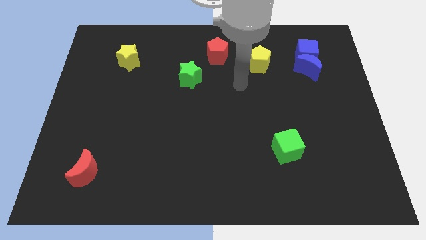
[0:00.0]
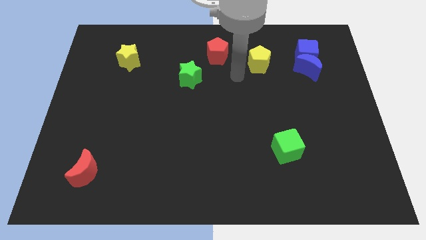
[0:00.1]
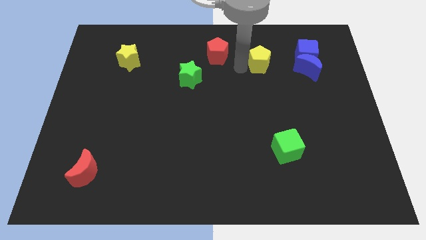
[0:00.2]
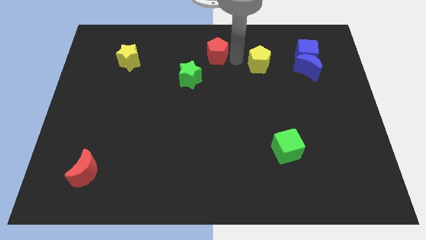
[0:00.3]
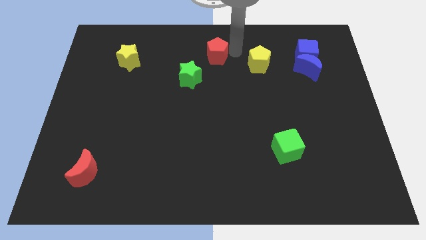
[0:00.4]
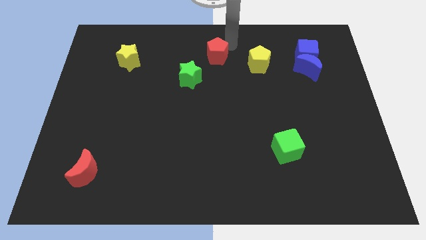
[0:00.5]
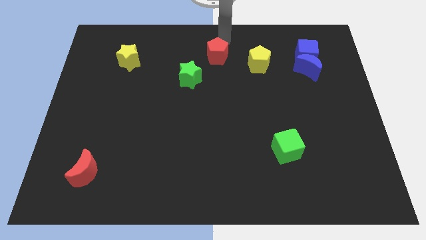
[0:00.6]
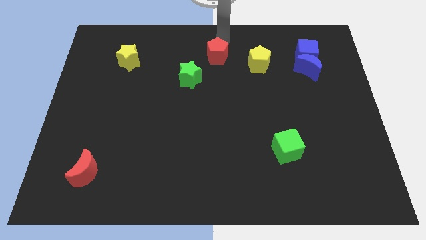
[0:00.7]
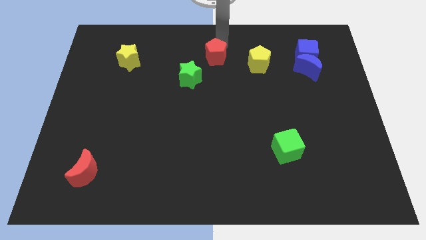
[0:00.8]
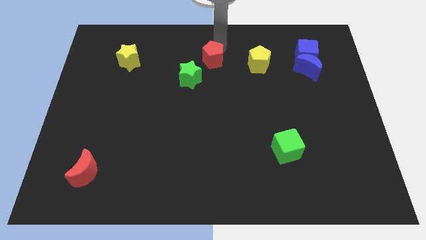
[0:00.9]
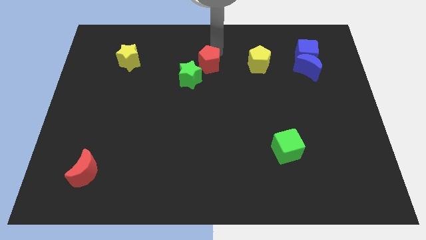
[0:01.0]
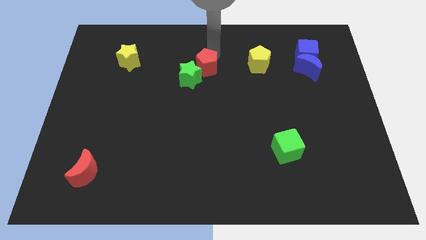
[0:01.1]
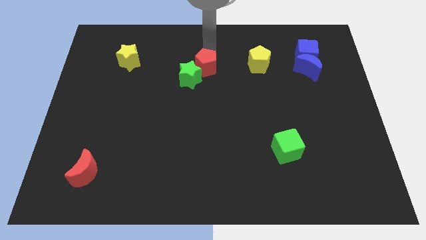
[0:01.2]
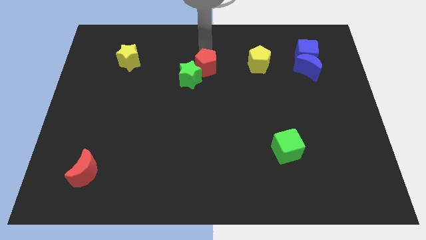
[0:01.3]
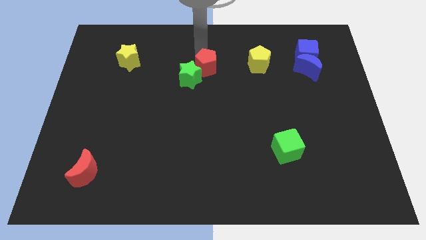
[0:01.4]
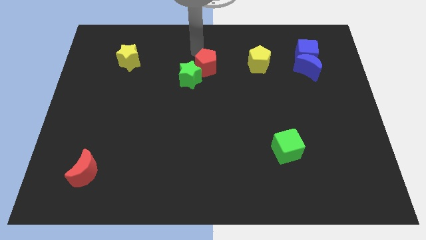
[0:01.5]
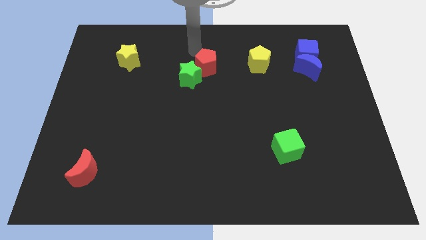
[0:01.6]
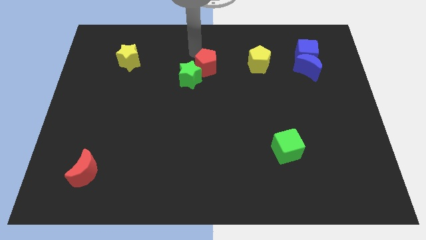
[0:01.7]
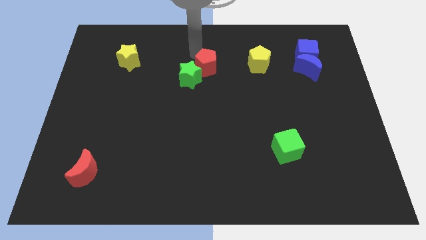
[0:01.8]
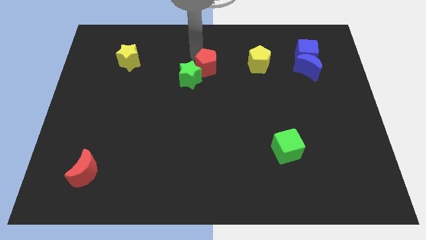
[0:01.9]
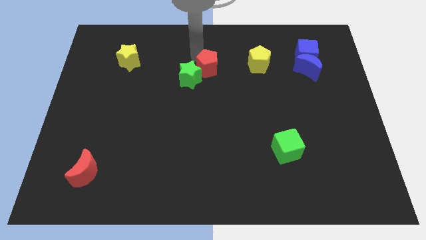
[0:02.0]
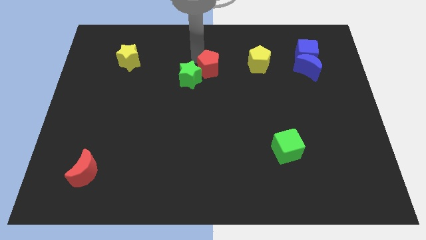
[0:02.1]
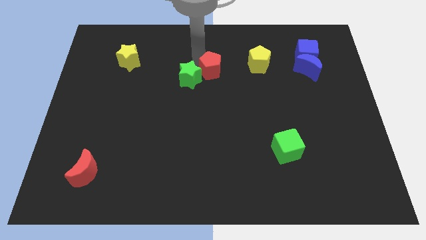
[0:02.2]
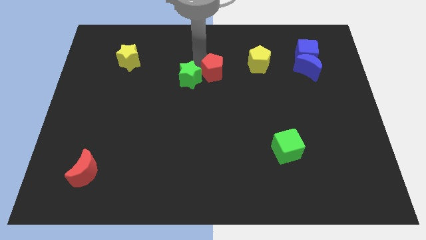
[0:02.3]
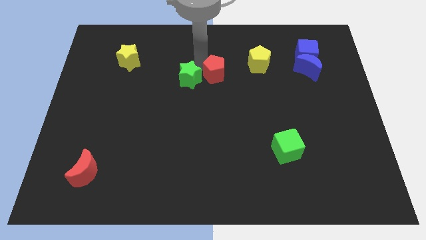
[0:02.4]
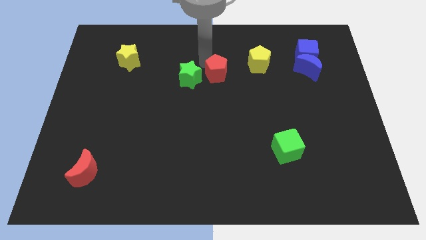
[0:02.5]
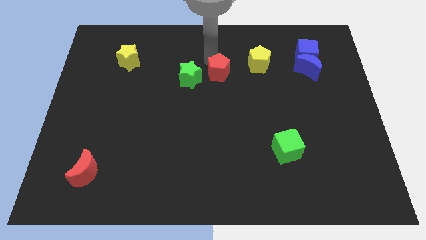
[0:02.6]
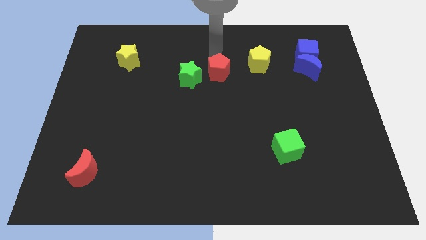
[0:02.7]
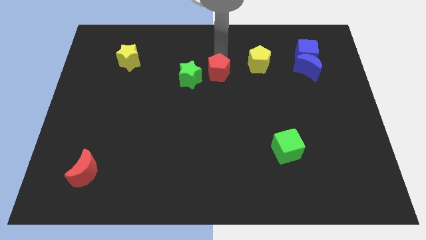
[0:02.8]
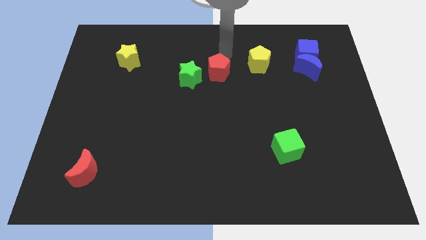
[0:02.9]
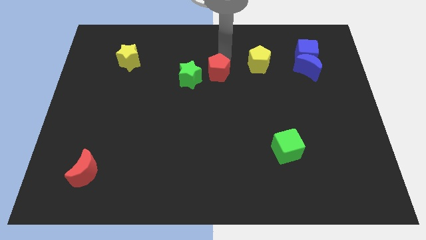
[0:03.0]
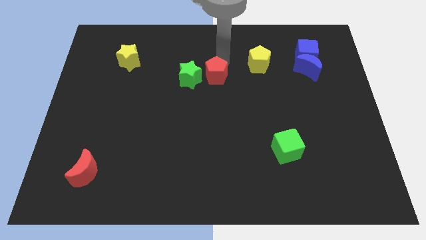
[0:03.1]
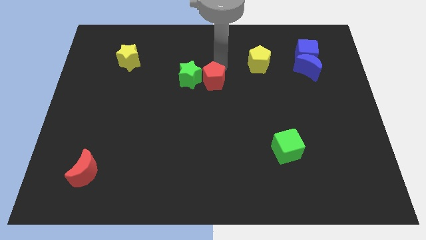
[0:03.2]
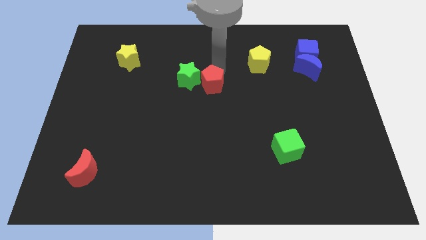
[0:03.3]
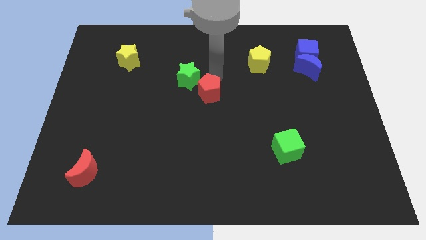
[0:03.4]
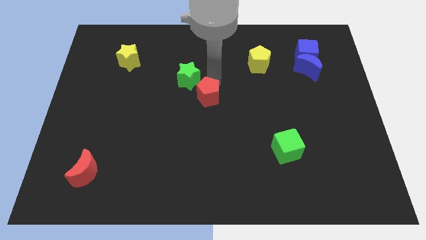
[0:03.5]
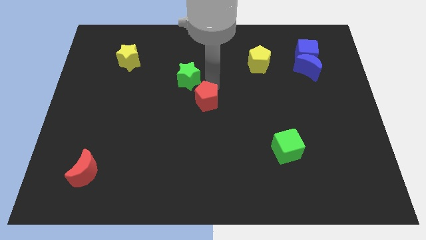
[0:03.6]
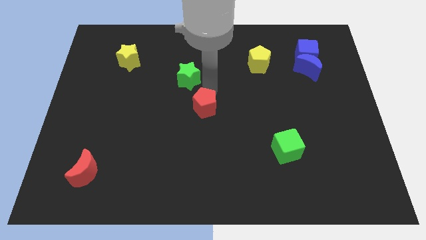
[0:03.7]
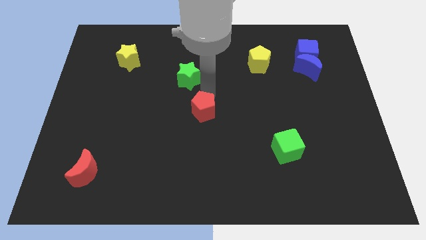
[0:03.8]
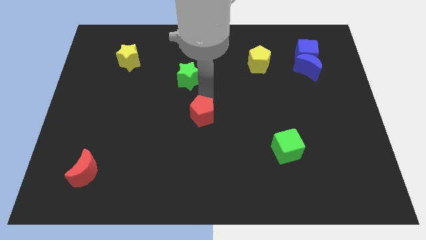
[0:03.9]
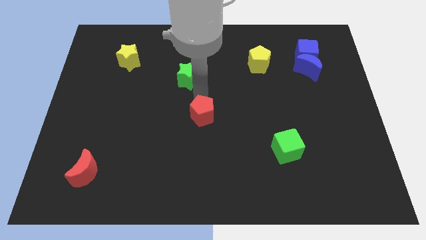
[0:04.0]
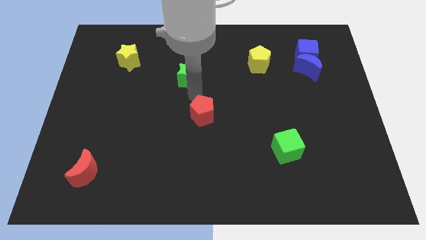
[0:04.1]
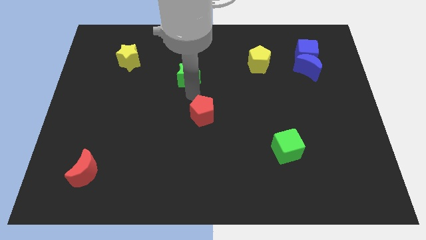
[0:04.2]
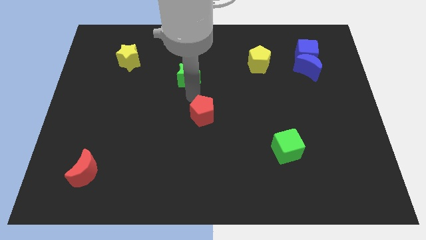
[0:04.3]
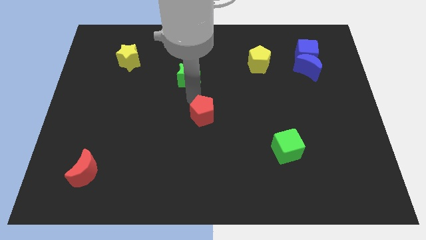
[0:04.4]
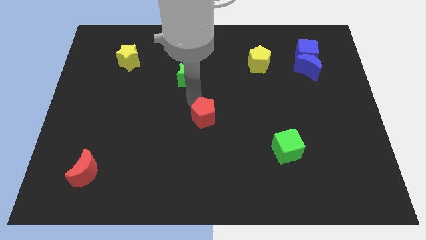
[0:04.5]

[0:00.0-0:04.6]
slide the red pentagon downwards

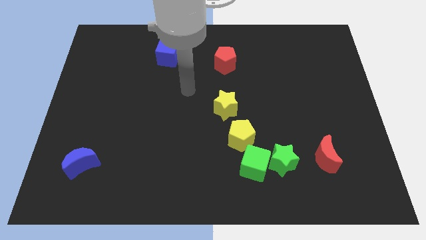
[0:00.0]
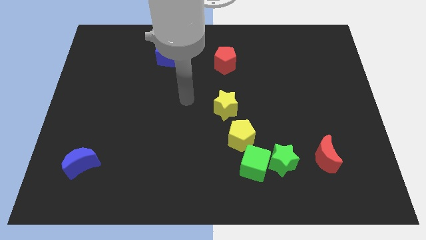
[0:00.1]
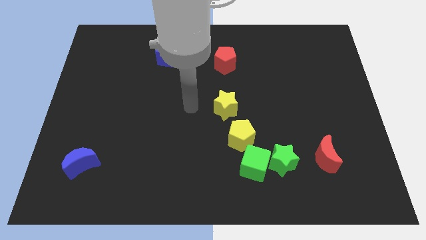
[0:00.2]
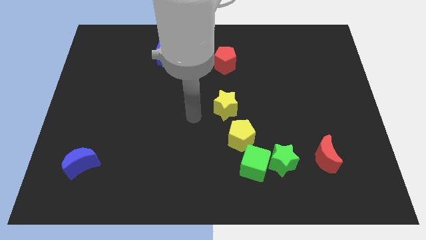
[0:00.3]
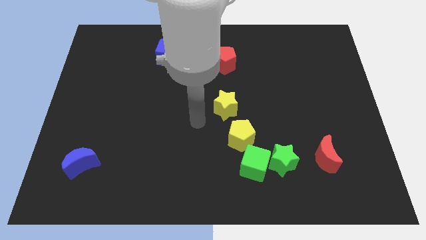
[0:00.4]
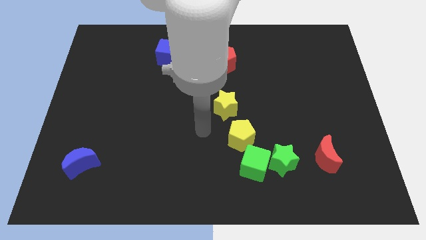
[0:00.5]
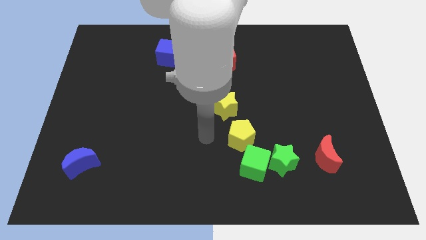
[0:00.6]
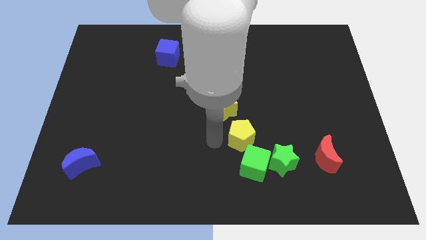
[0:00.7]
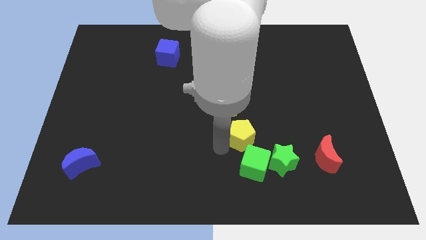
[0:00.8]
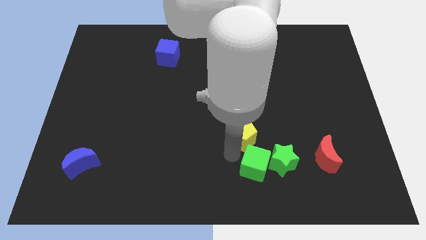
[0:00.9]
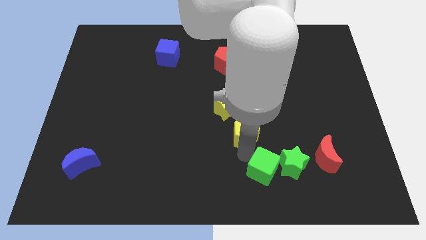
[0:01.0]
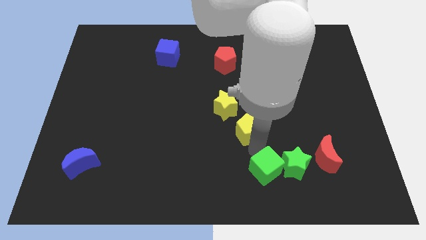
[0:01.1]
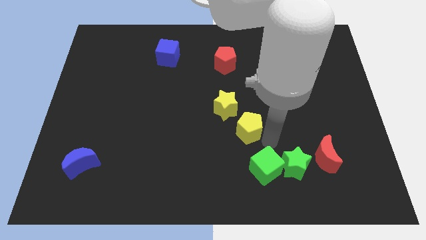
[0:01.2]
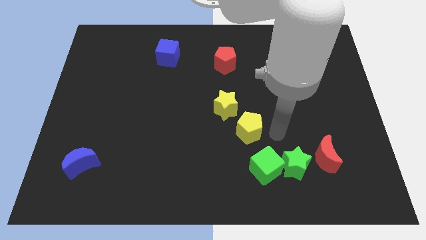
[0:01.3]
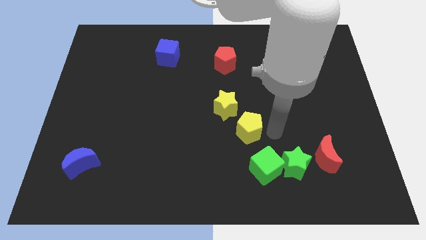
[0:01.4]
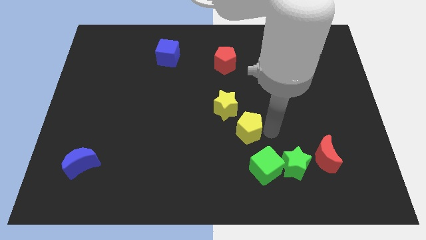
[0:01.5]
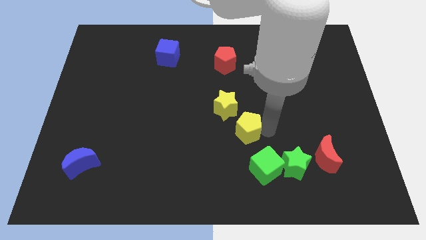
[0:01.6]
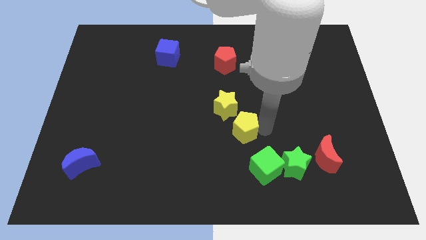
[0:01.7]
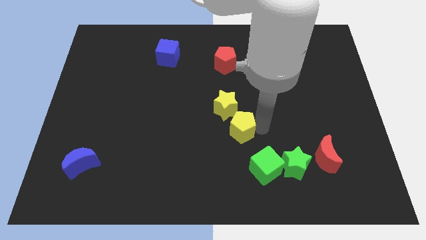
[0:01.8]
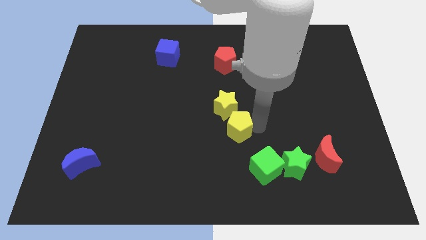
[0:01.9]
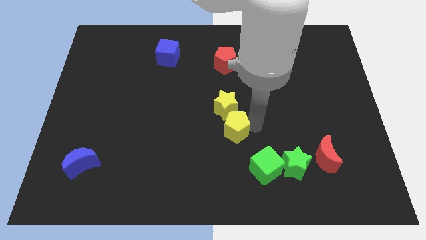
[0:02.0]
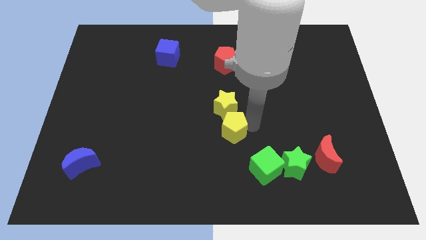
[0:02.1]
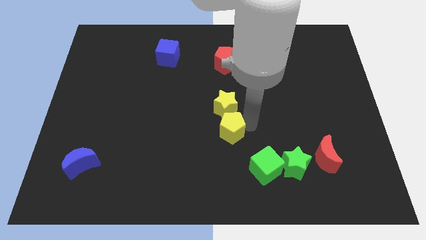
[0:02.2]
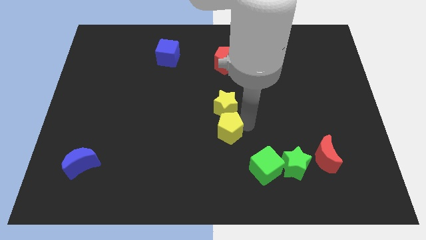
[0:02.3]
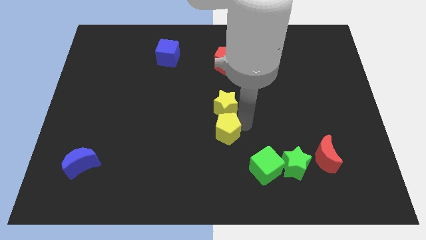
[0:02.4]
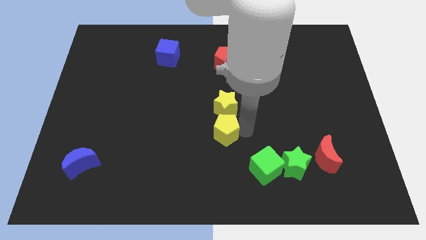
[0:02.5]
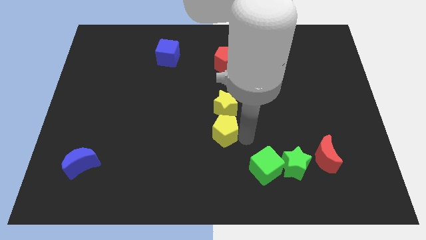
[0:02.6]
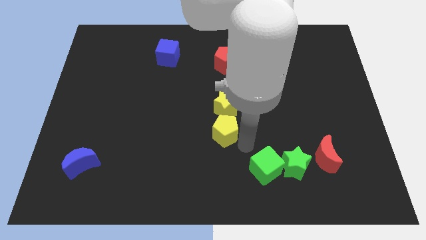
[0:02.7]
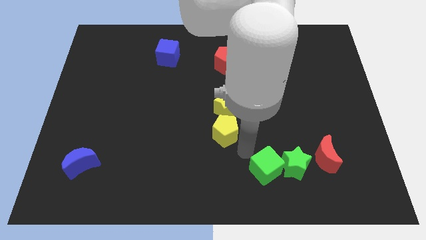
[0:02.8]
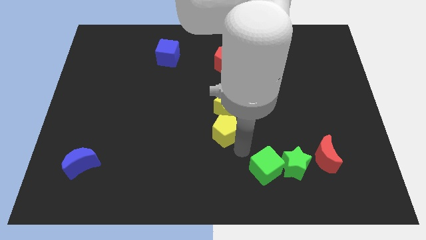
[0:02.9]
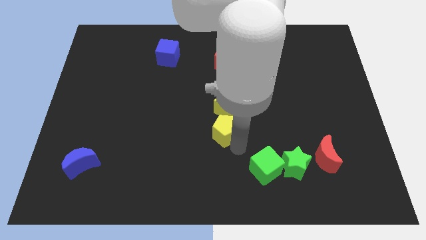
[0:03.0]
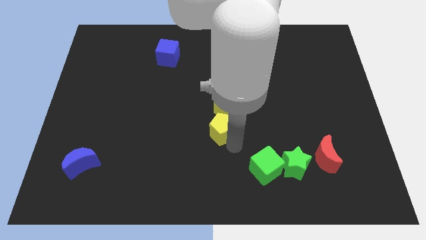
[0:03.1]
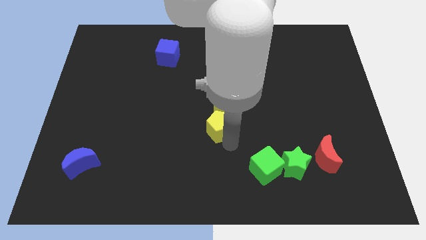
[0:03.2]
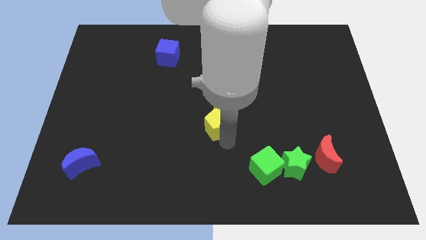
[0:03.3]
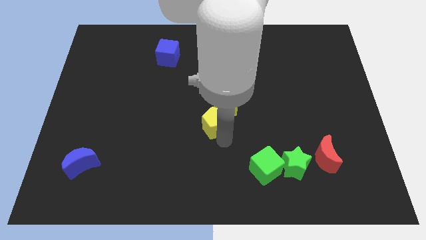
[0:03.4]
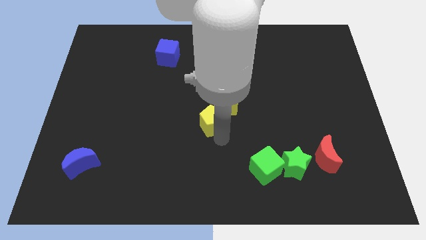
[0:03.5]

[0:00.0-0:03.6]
slightly slide the yellow pentagon up and to the left
